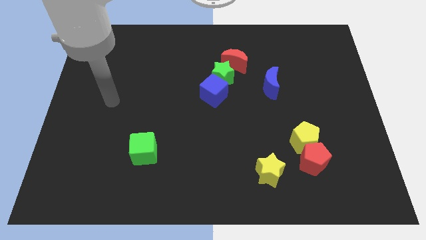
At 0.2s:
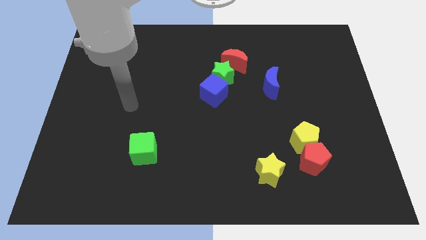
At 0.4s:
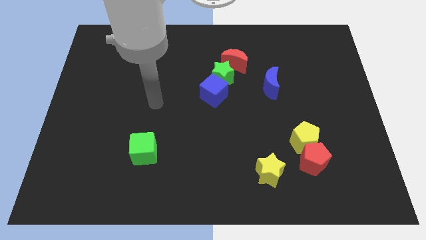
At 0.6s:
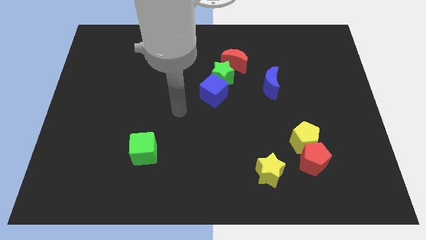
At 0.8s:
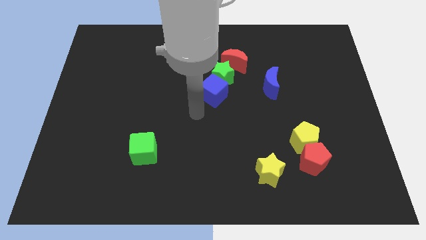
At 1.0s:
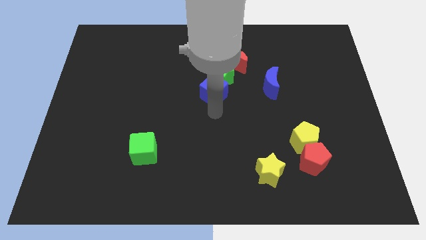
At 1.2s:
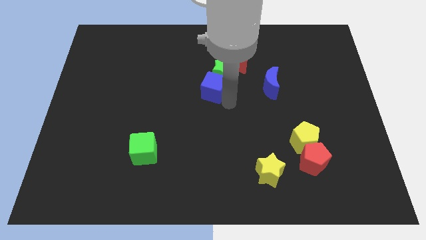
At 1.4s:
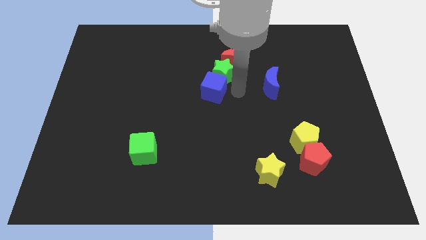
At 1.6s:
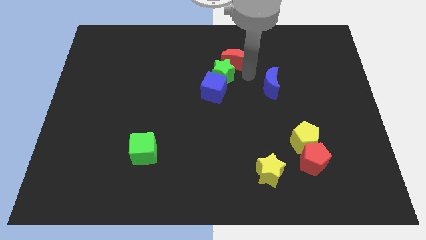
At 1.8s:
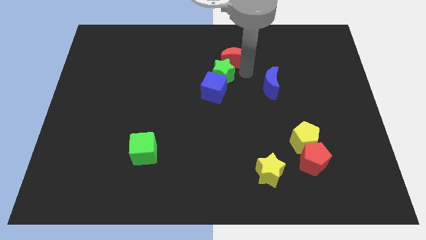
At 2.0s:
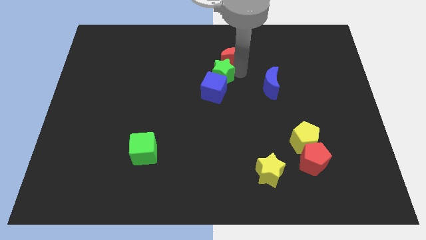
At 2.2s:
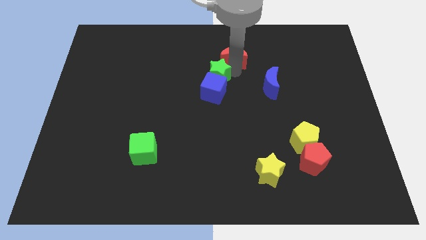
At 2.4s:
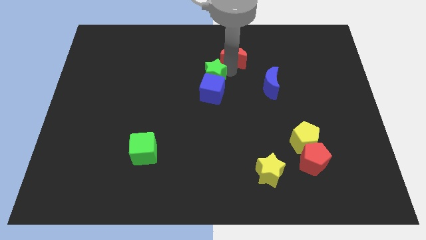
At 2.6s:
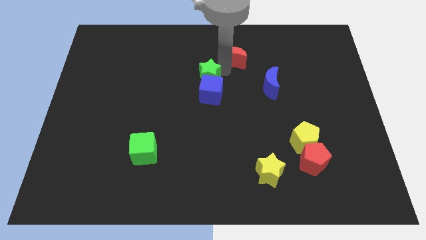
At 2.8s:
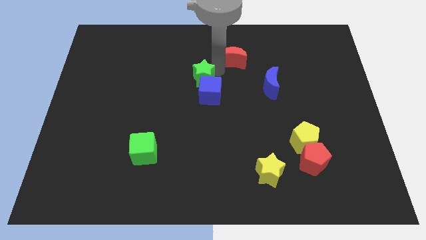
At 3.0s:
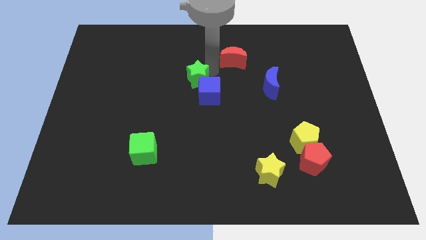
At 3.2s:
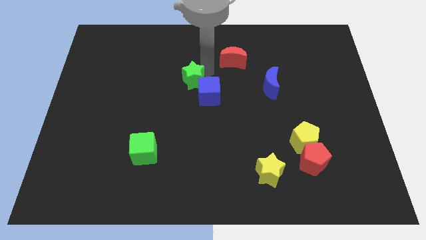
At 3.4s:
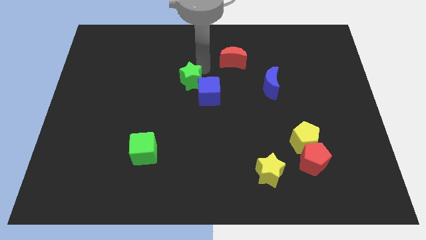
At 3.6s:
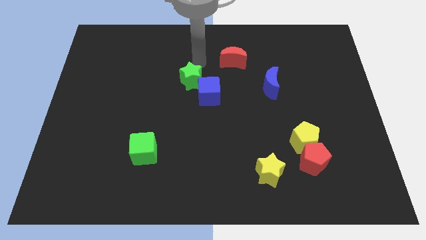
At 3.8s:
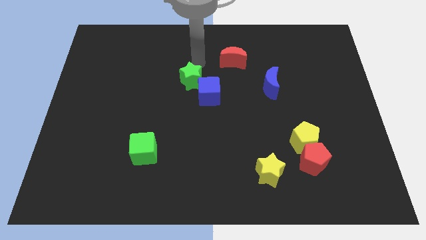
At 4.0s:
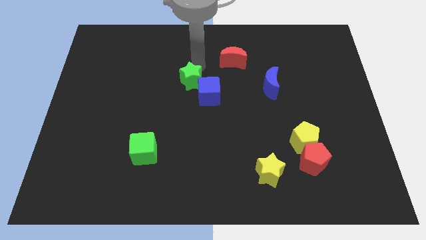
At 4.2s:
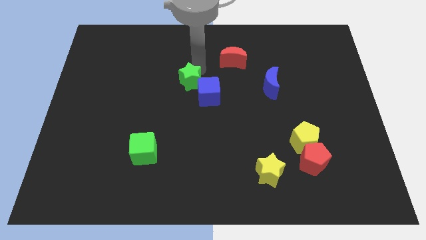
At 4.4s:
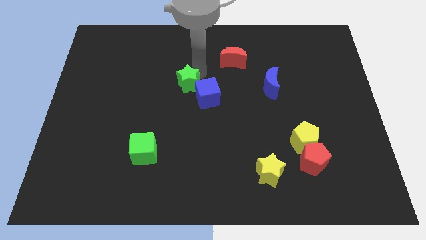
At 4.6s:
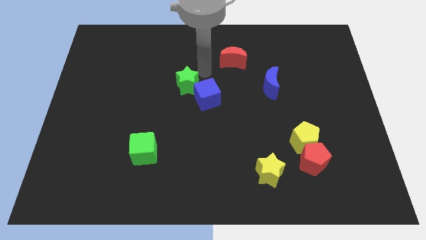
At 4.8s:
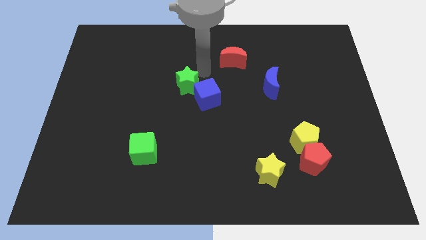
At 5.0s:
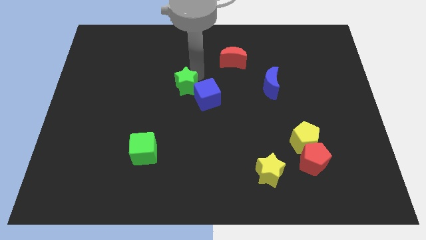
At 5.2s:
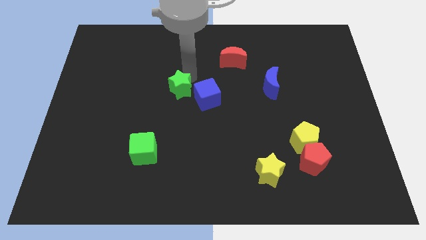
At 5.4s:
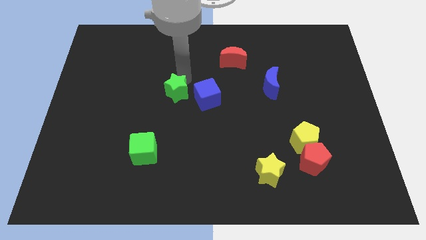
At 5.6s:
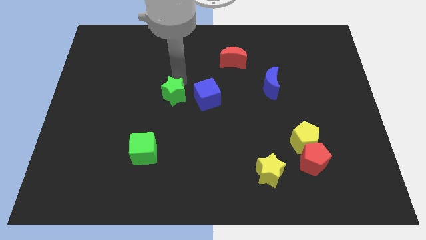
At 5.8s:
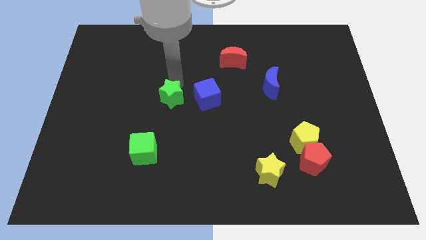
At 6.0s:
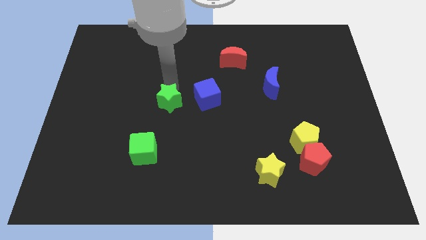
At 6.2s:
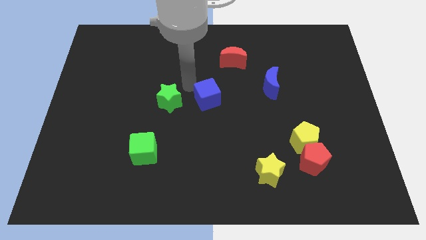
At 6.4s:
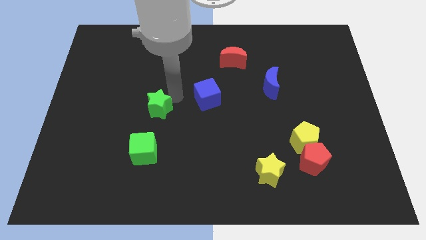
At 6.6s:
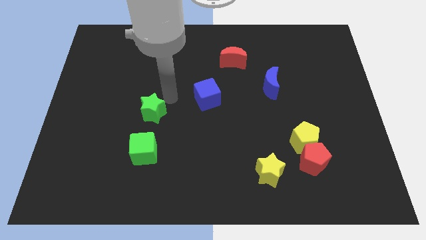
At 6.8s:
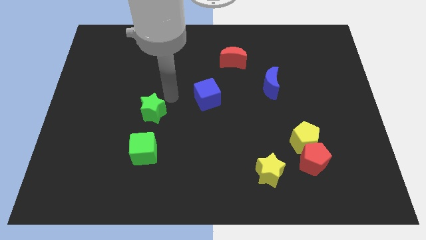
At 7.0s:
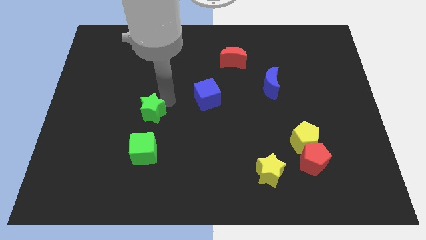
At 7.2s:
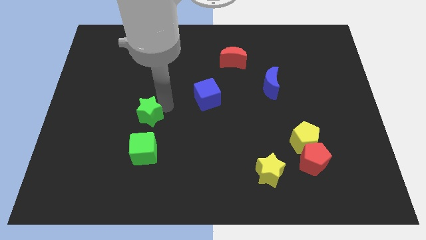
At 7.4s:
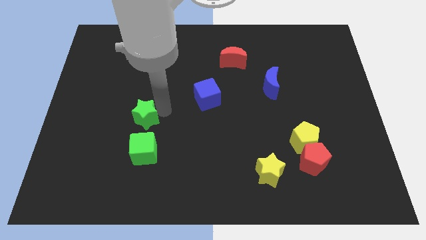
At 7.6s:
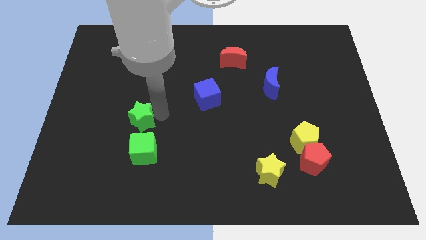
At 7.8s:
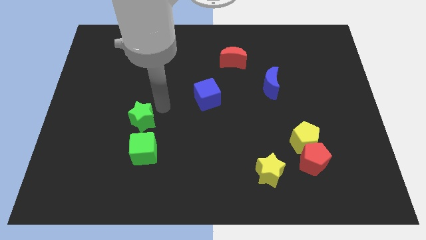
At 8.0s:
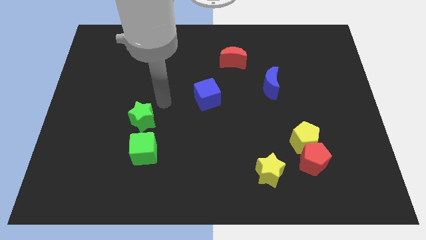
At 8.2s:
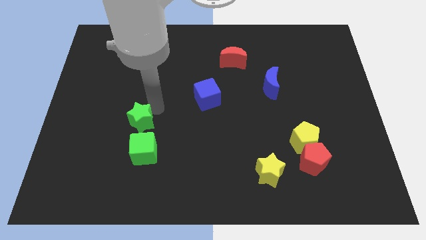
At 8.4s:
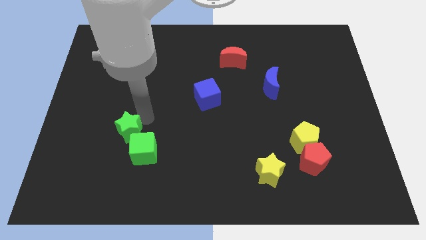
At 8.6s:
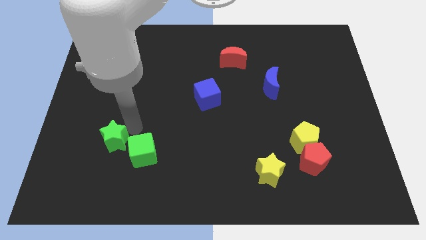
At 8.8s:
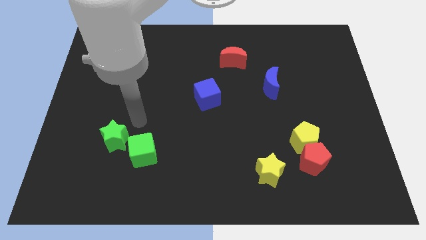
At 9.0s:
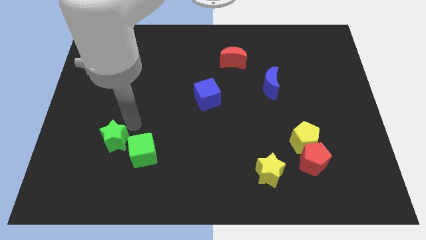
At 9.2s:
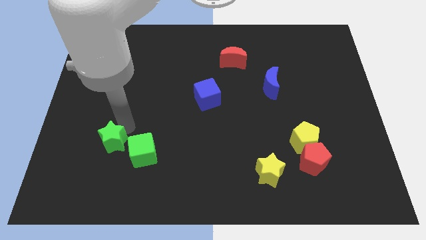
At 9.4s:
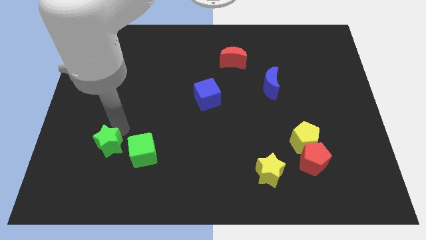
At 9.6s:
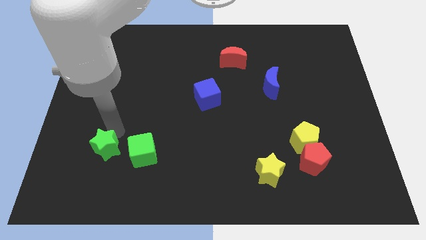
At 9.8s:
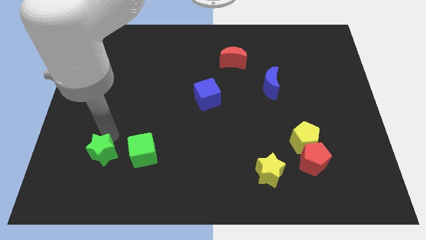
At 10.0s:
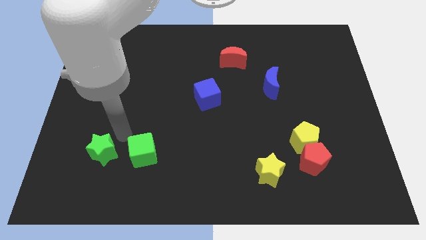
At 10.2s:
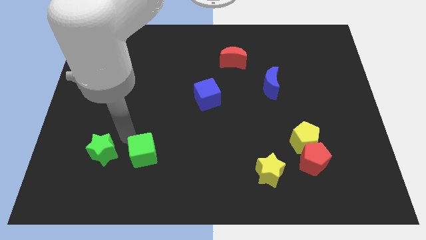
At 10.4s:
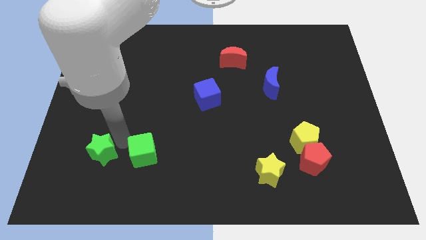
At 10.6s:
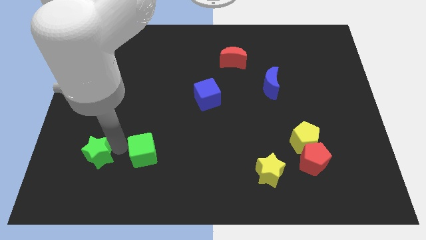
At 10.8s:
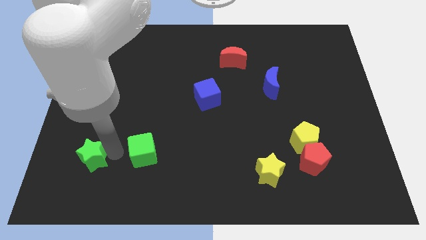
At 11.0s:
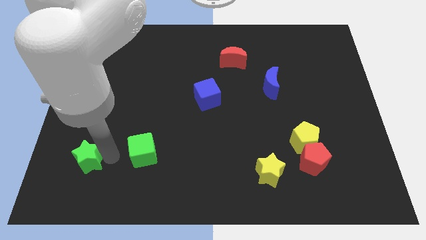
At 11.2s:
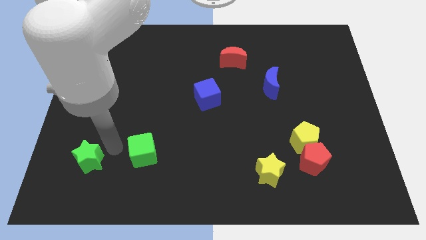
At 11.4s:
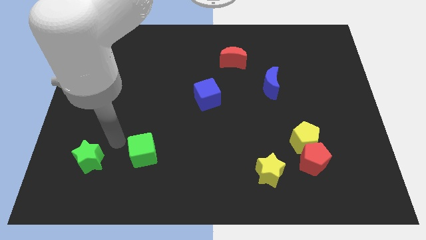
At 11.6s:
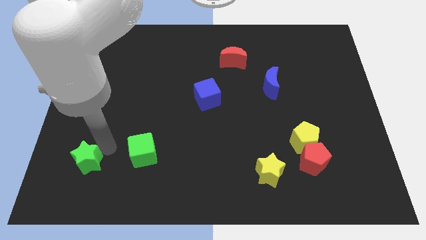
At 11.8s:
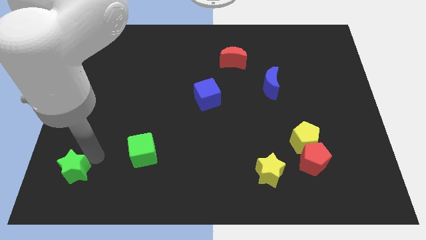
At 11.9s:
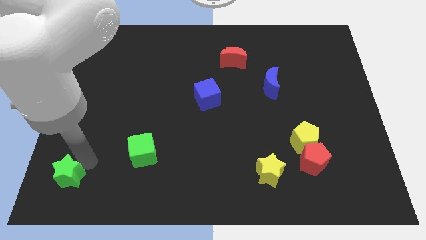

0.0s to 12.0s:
slide the green star to the bottom left corner

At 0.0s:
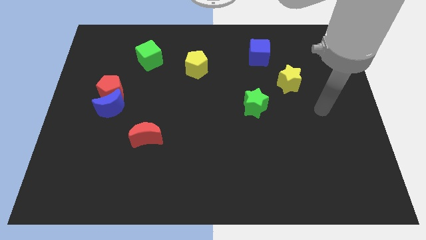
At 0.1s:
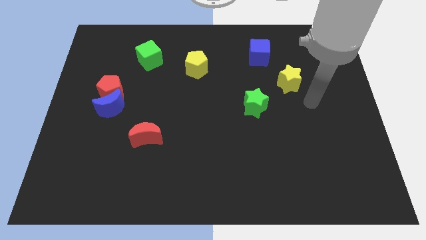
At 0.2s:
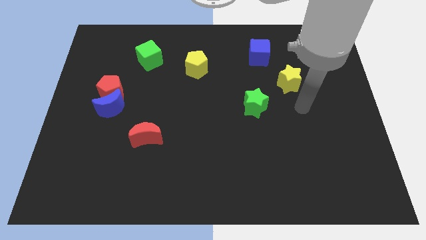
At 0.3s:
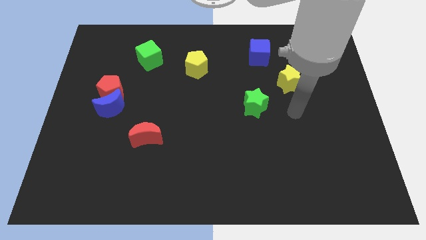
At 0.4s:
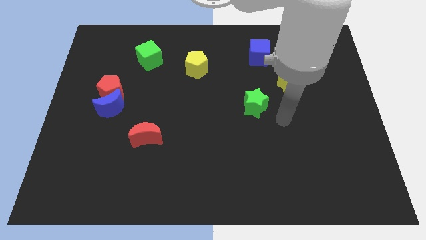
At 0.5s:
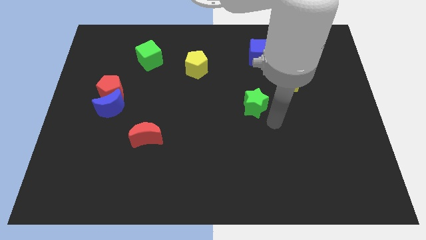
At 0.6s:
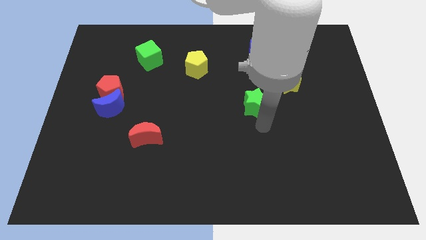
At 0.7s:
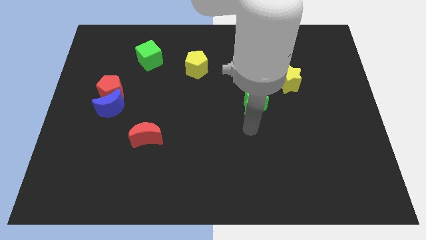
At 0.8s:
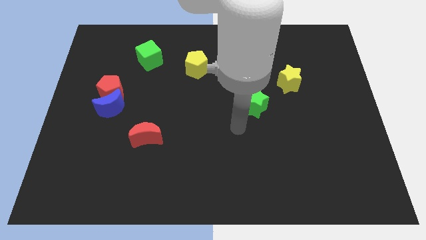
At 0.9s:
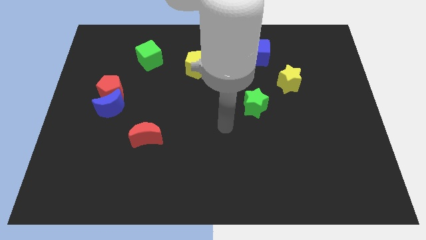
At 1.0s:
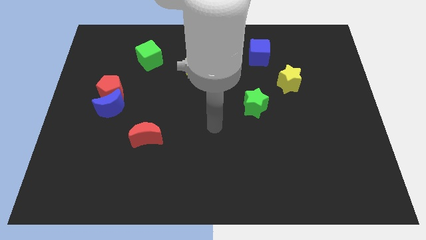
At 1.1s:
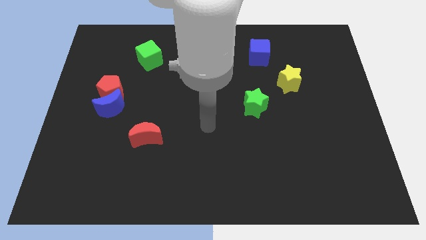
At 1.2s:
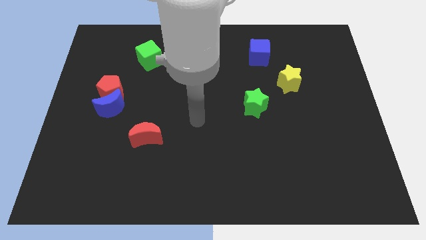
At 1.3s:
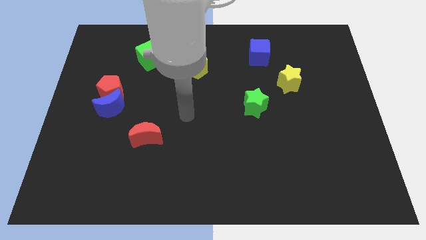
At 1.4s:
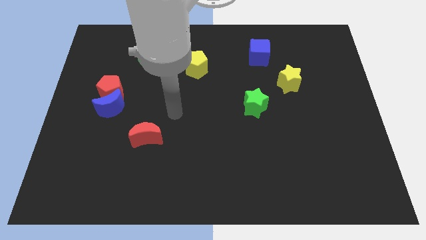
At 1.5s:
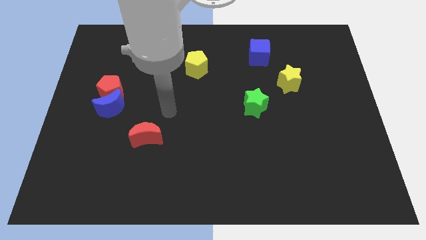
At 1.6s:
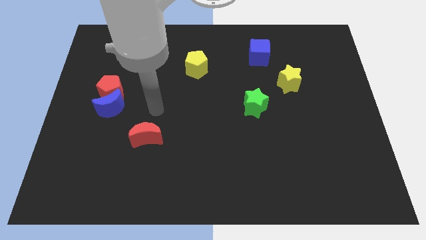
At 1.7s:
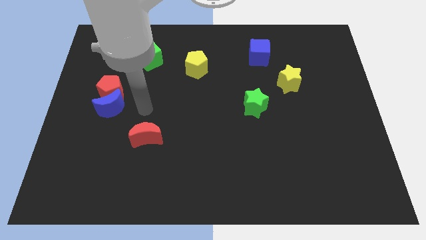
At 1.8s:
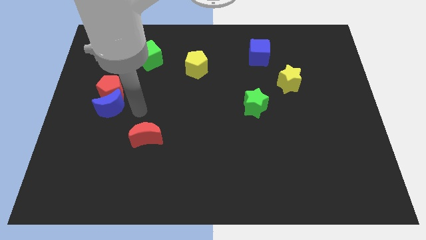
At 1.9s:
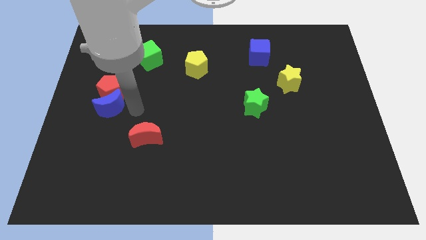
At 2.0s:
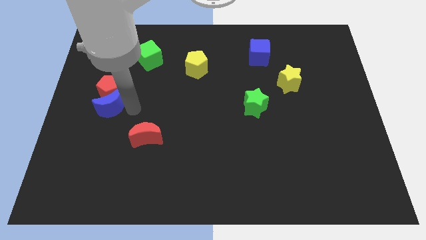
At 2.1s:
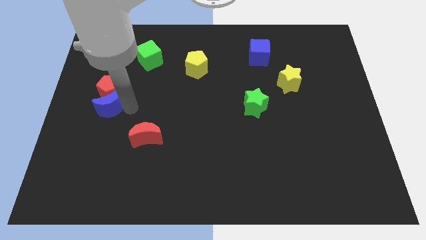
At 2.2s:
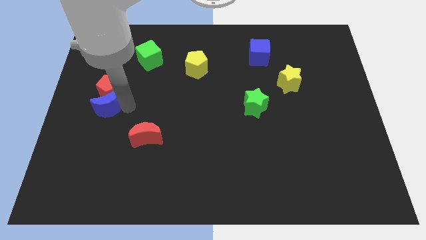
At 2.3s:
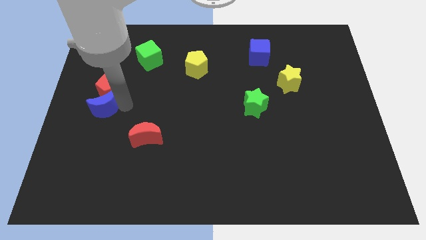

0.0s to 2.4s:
put the blue moon to the left side of the board
